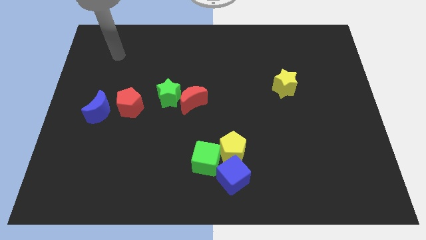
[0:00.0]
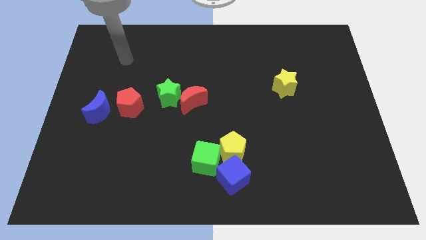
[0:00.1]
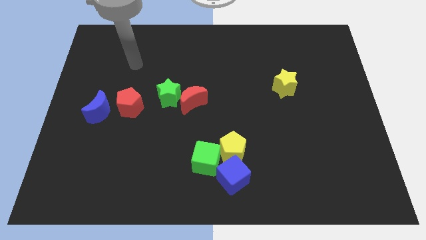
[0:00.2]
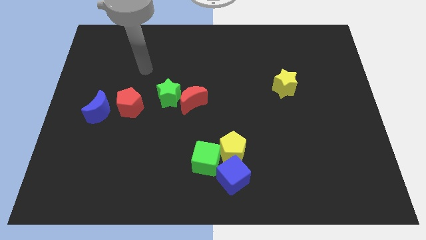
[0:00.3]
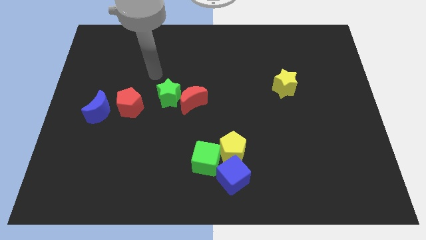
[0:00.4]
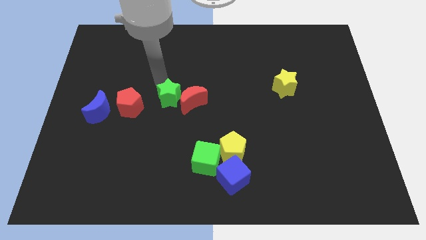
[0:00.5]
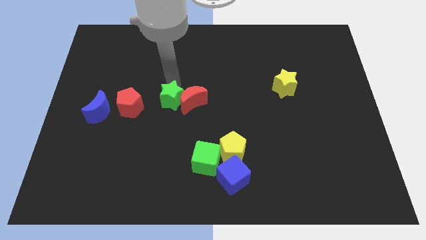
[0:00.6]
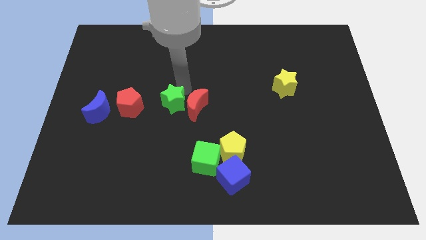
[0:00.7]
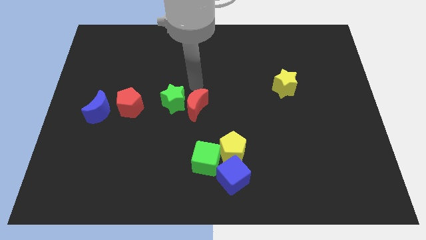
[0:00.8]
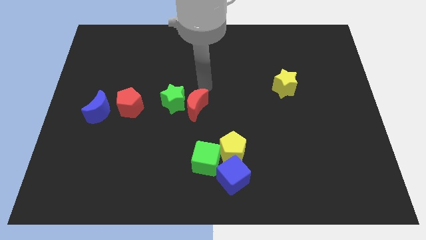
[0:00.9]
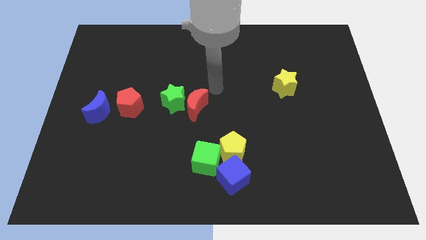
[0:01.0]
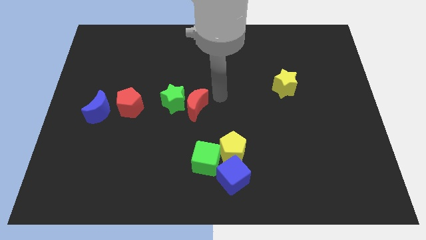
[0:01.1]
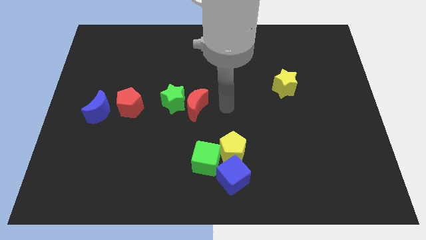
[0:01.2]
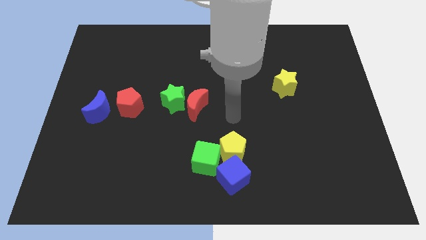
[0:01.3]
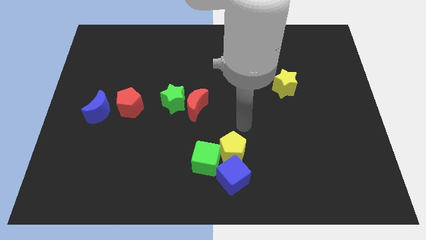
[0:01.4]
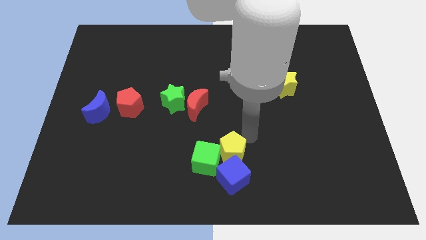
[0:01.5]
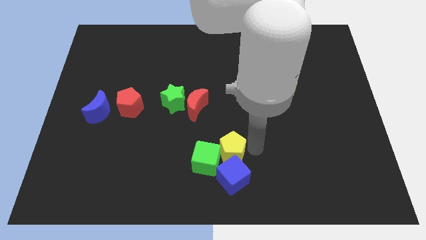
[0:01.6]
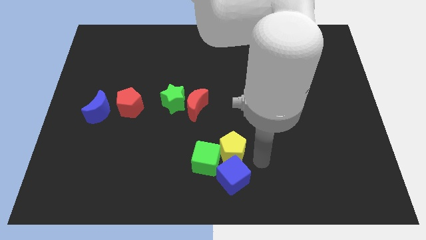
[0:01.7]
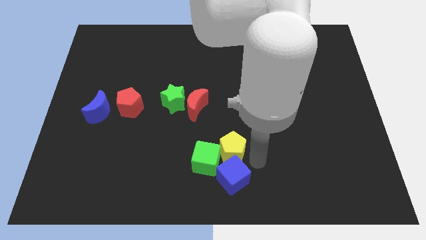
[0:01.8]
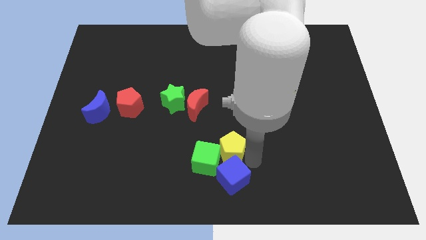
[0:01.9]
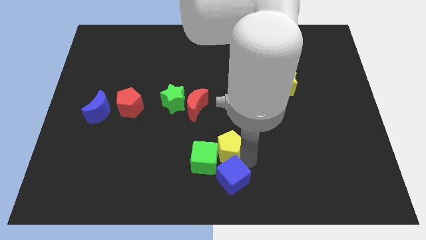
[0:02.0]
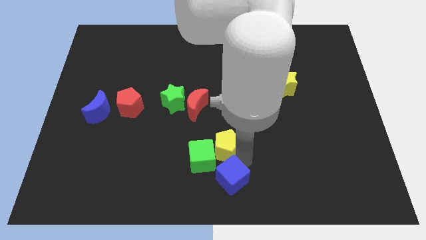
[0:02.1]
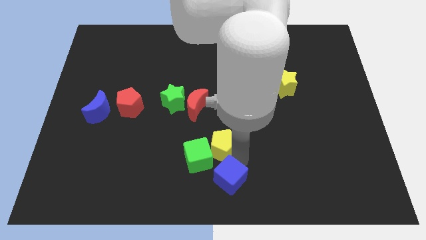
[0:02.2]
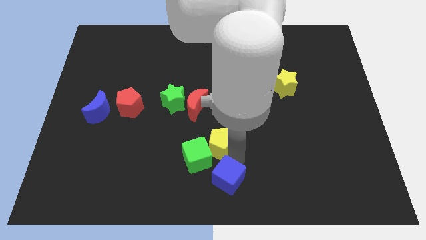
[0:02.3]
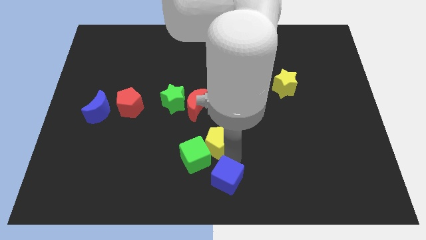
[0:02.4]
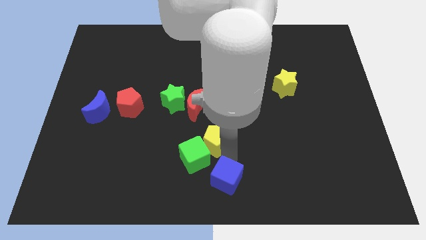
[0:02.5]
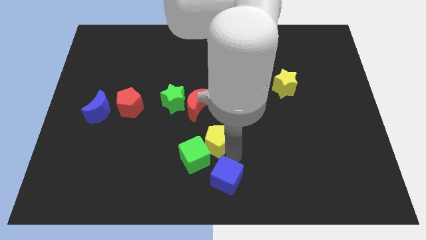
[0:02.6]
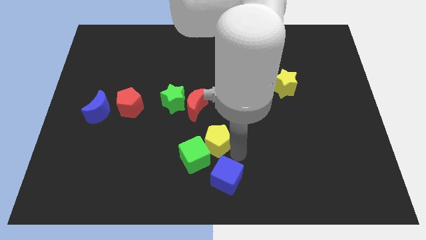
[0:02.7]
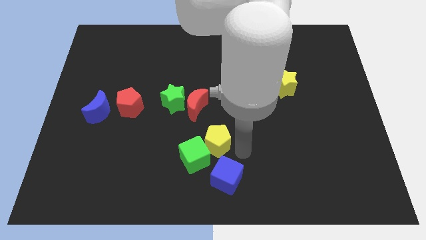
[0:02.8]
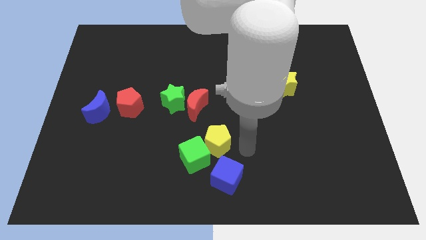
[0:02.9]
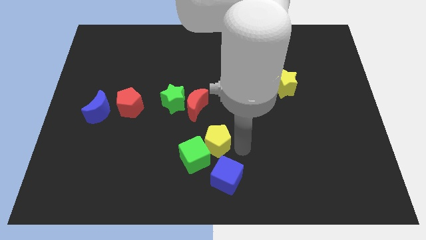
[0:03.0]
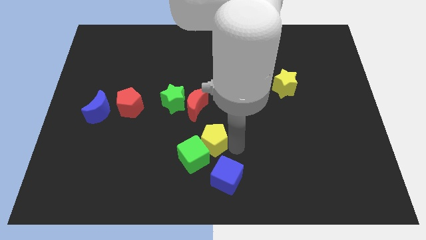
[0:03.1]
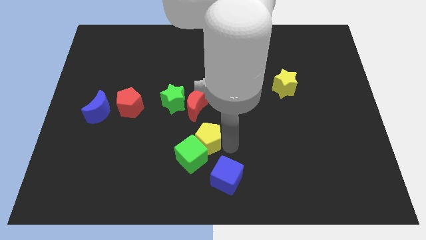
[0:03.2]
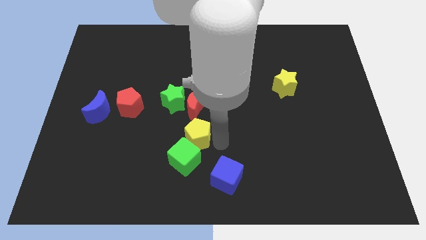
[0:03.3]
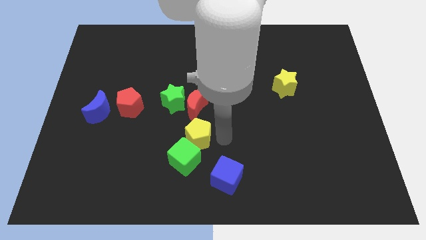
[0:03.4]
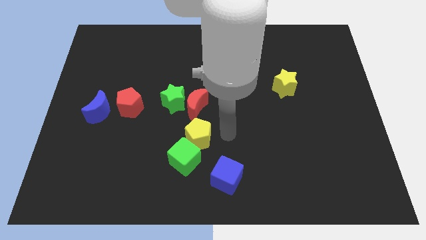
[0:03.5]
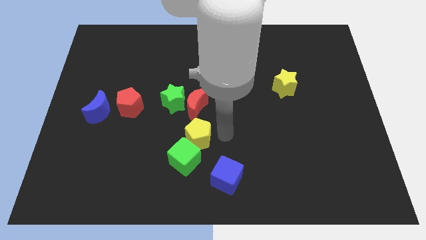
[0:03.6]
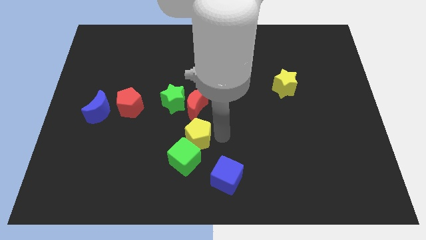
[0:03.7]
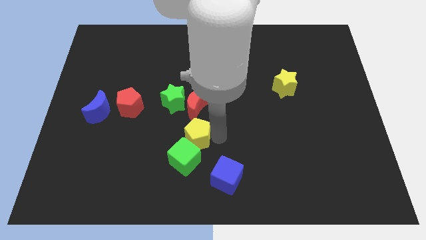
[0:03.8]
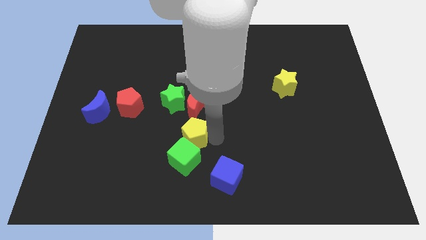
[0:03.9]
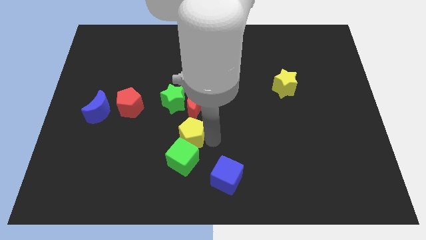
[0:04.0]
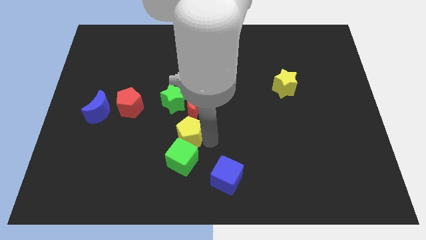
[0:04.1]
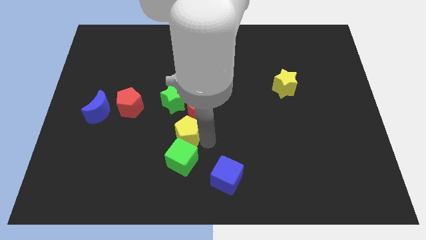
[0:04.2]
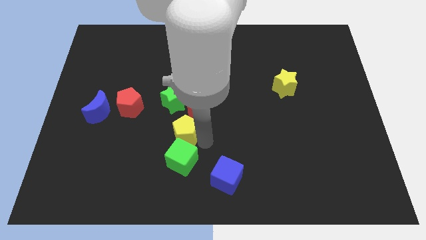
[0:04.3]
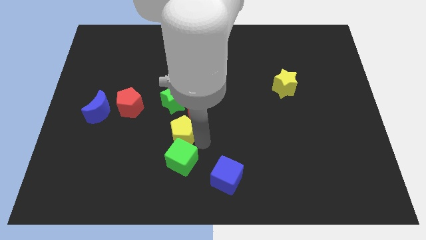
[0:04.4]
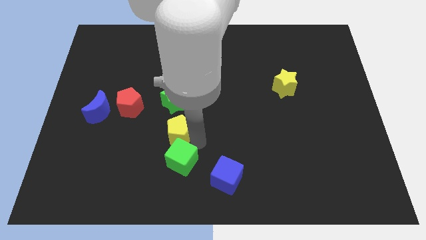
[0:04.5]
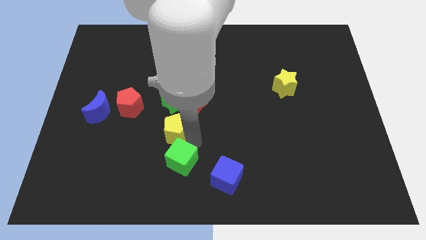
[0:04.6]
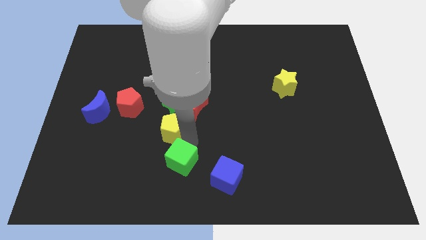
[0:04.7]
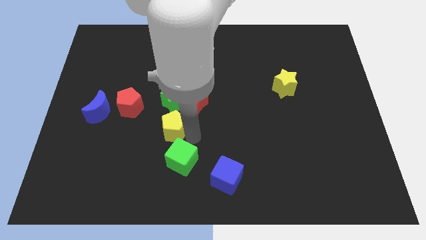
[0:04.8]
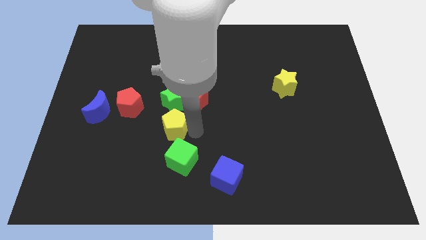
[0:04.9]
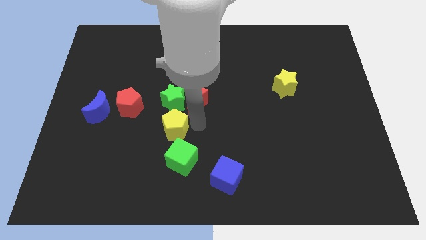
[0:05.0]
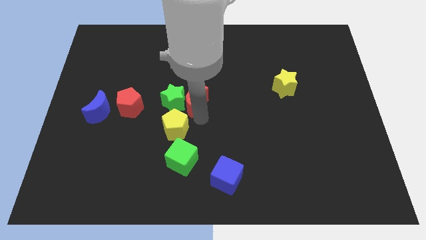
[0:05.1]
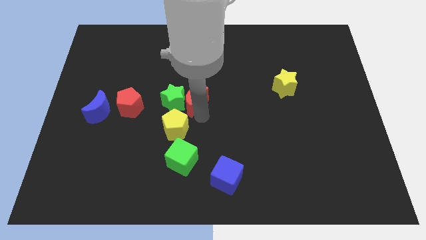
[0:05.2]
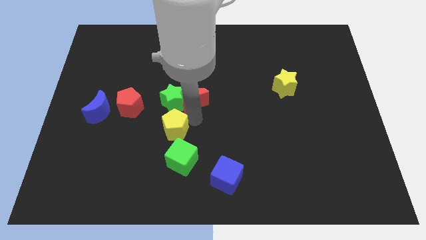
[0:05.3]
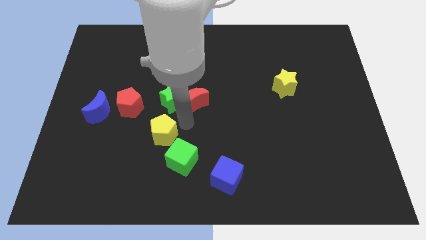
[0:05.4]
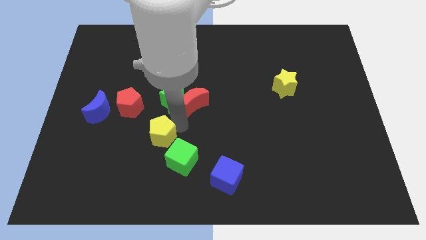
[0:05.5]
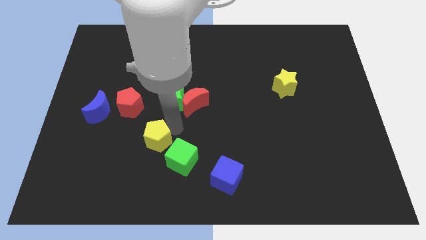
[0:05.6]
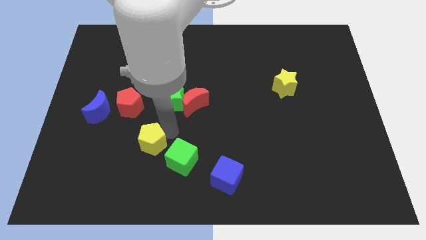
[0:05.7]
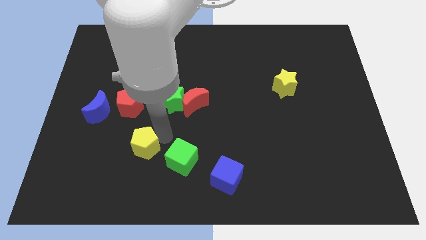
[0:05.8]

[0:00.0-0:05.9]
push the yellow pentagon to the bottom of the red pentagon

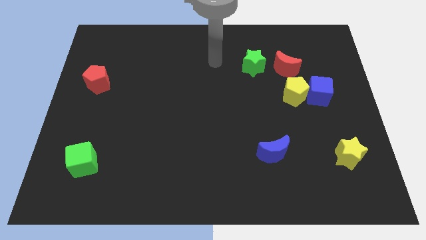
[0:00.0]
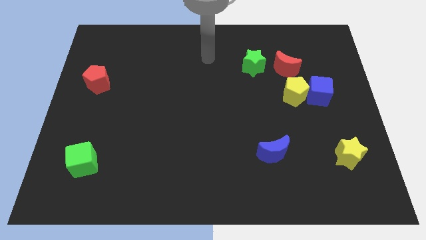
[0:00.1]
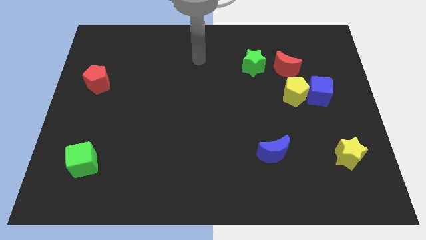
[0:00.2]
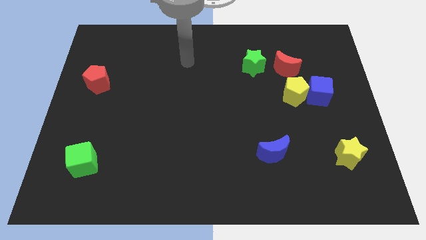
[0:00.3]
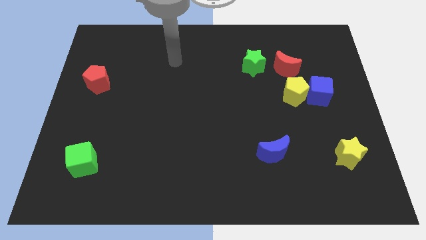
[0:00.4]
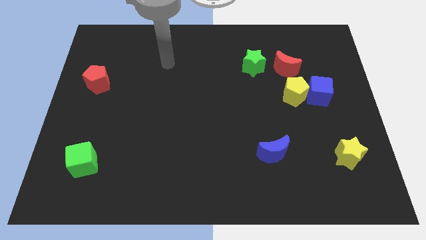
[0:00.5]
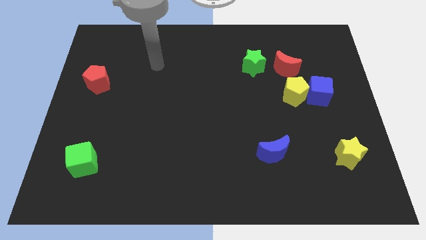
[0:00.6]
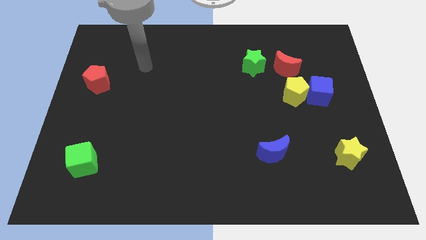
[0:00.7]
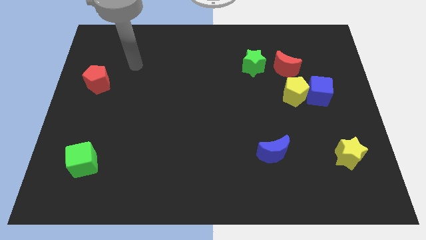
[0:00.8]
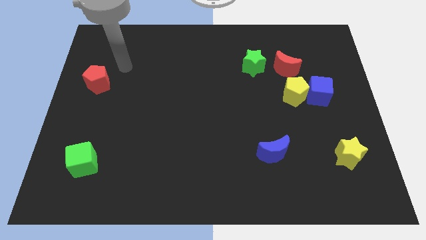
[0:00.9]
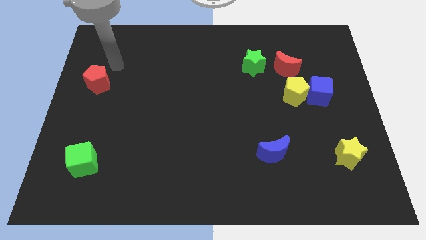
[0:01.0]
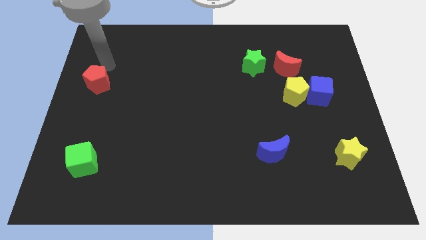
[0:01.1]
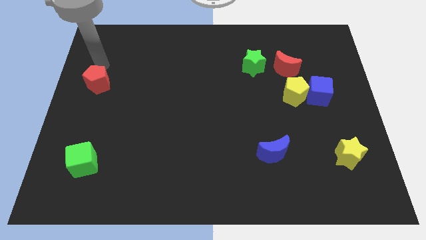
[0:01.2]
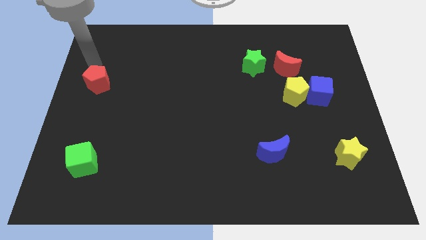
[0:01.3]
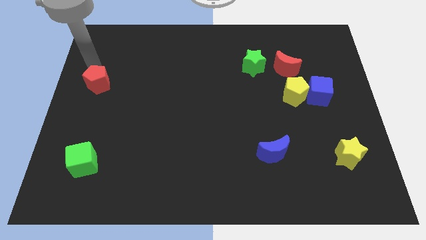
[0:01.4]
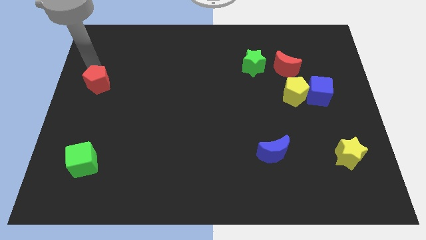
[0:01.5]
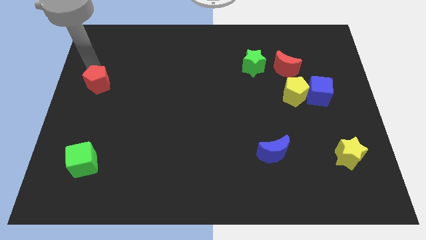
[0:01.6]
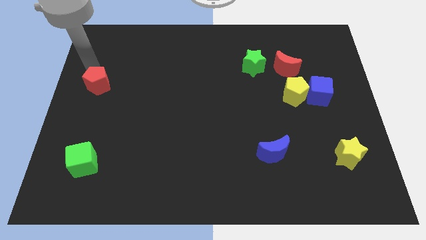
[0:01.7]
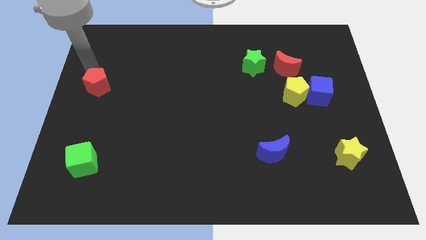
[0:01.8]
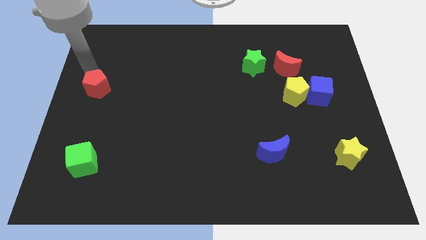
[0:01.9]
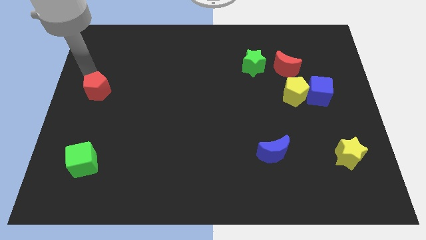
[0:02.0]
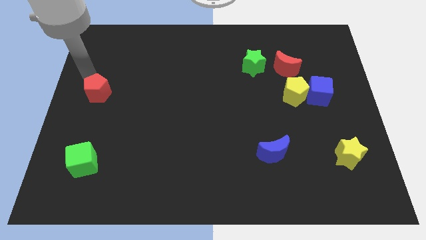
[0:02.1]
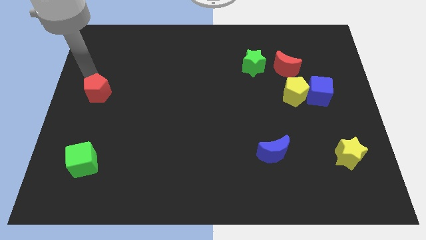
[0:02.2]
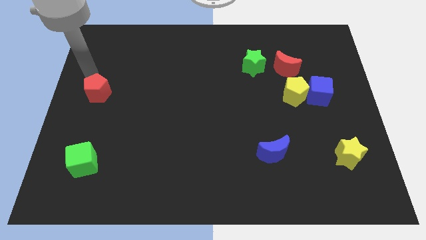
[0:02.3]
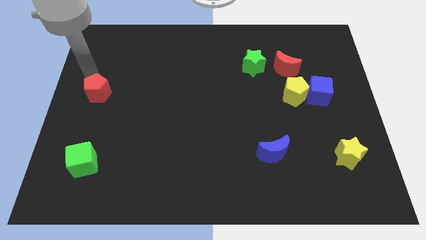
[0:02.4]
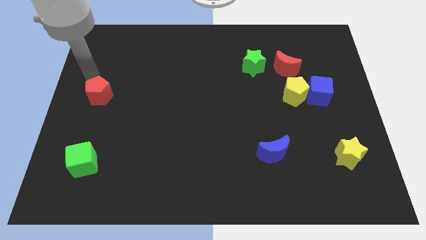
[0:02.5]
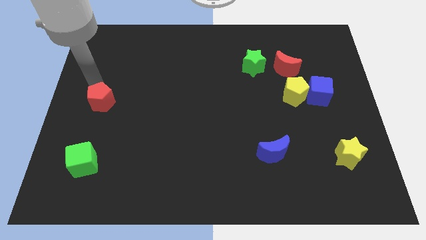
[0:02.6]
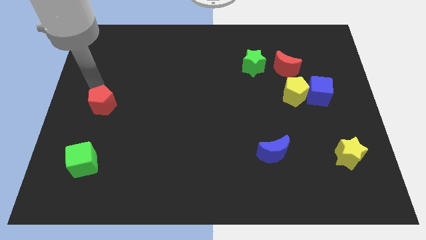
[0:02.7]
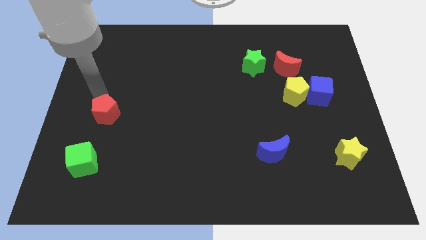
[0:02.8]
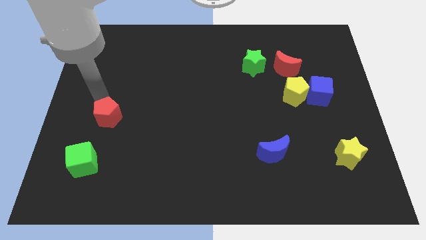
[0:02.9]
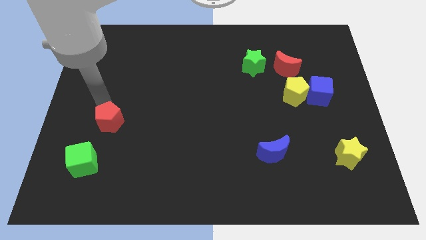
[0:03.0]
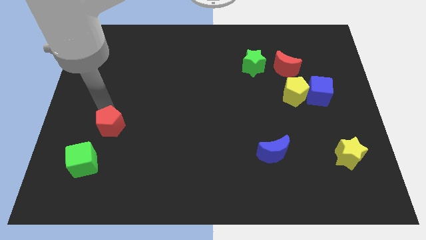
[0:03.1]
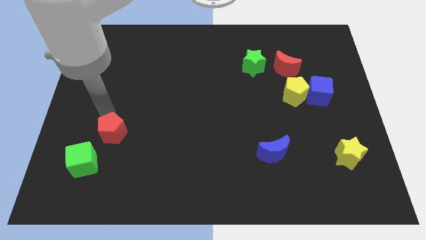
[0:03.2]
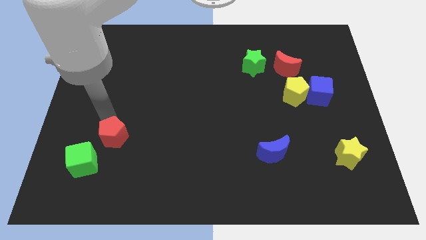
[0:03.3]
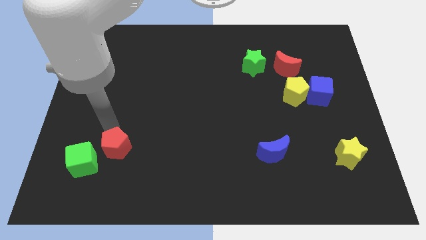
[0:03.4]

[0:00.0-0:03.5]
move the red pentagon to the right side of the green cube
